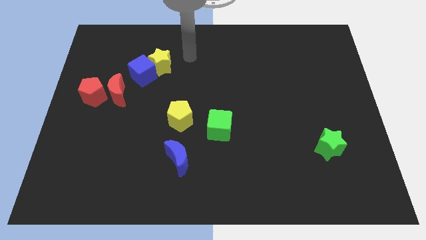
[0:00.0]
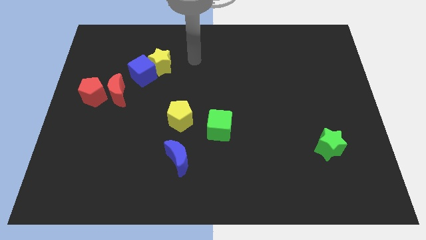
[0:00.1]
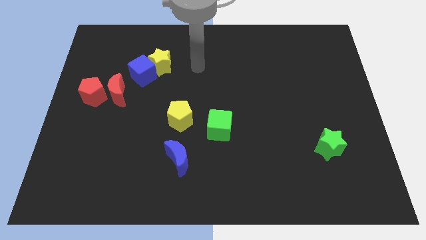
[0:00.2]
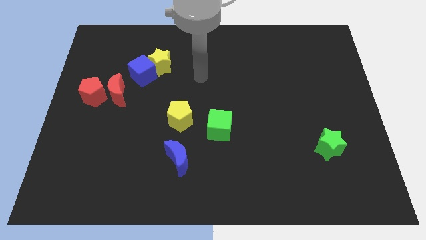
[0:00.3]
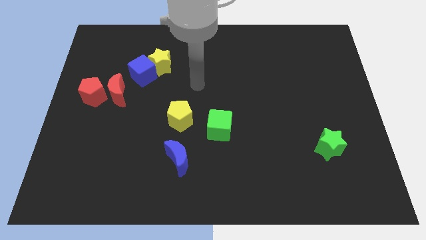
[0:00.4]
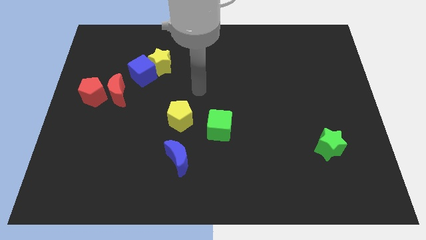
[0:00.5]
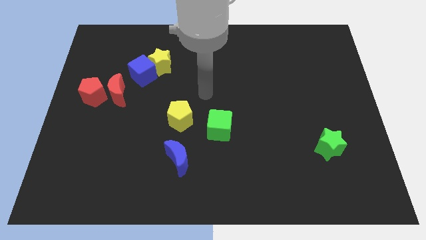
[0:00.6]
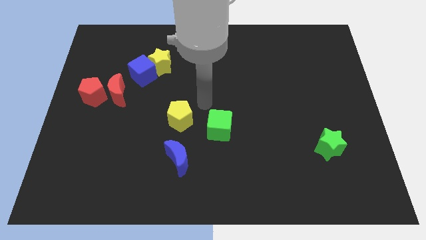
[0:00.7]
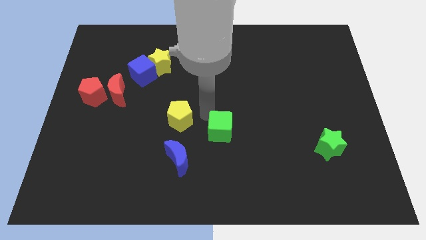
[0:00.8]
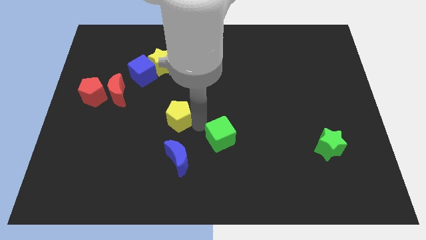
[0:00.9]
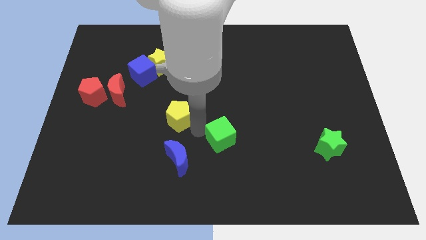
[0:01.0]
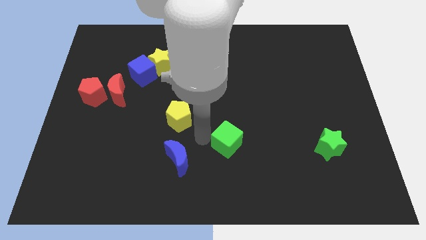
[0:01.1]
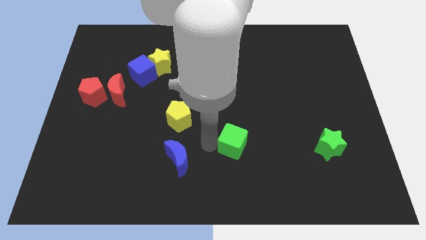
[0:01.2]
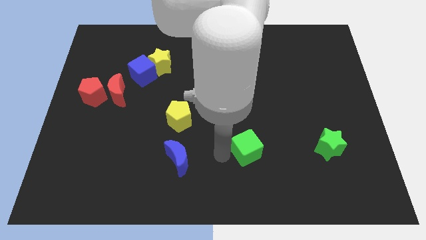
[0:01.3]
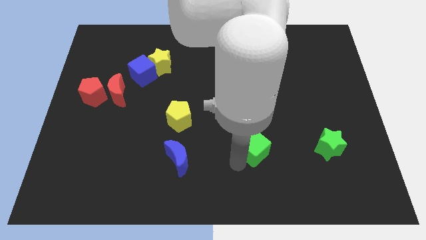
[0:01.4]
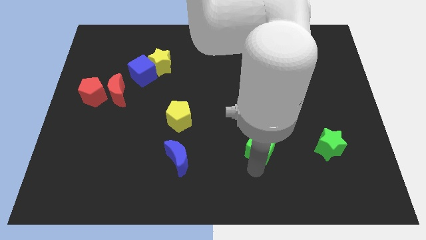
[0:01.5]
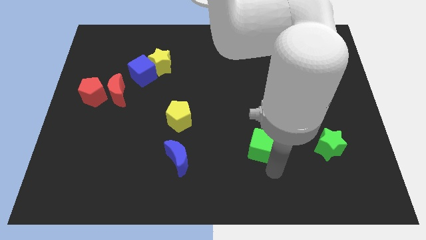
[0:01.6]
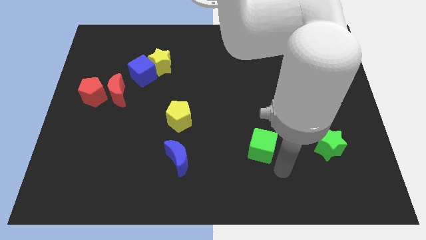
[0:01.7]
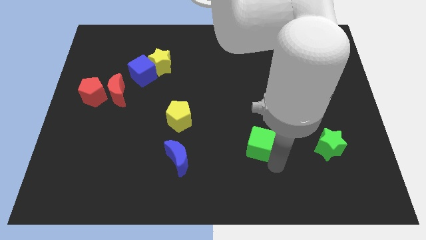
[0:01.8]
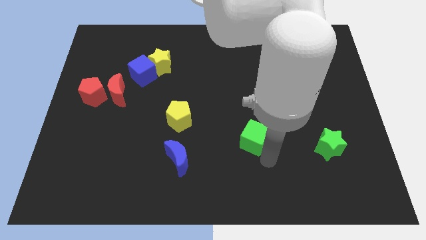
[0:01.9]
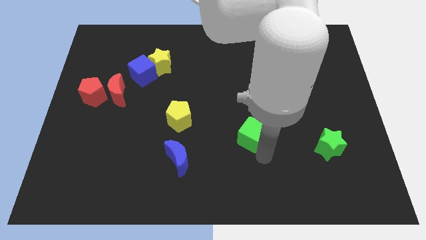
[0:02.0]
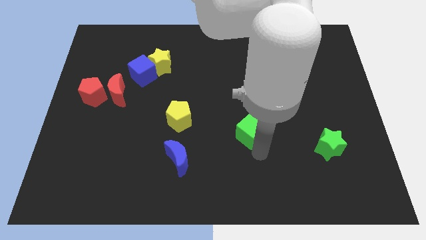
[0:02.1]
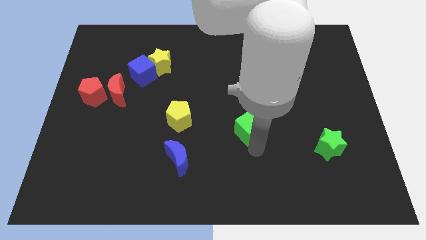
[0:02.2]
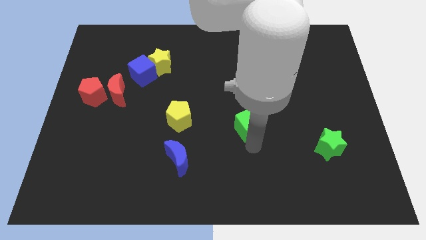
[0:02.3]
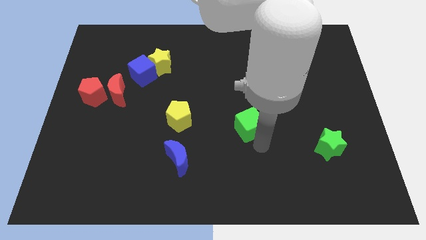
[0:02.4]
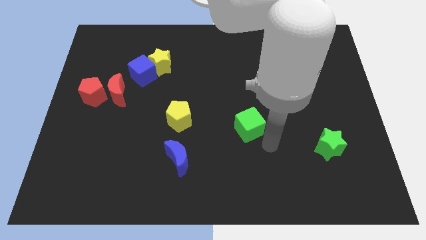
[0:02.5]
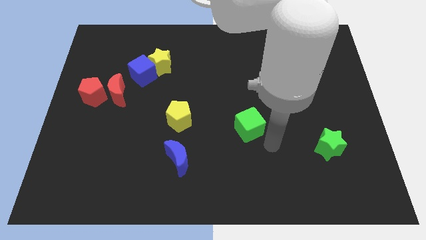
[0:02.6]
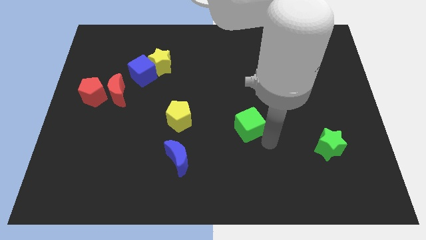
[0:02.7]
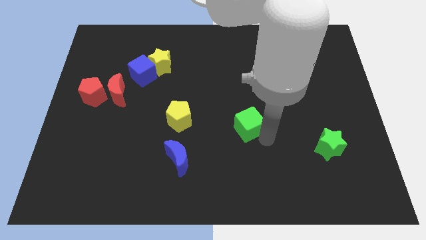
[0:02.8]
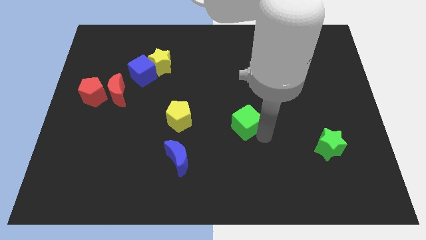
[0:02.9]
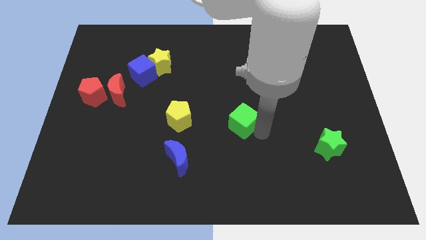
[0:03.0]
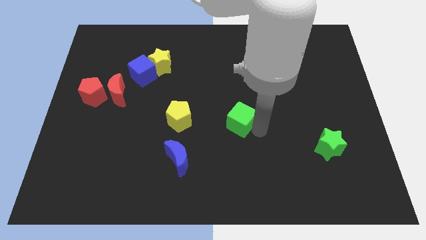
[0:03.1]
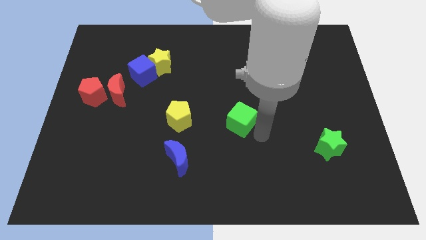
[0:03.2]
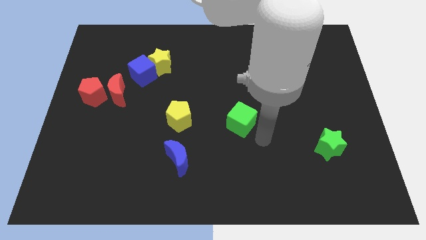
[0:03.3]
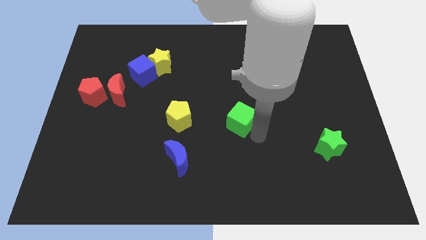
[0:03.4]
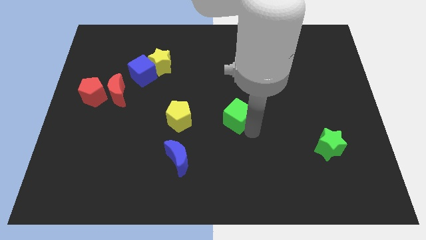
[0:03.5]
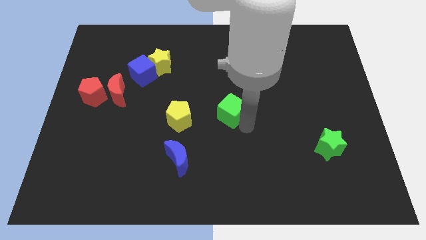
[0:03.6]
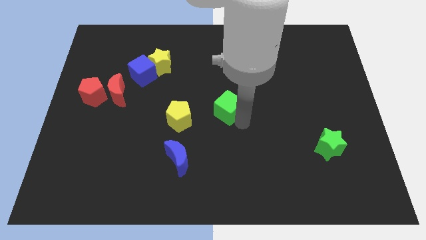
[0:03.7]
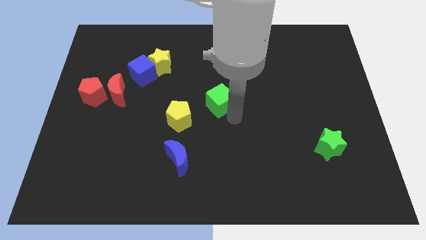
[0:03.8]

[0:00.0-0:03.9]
slightly move the green cube up

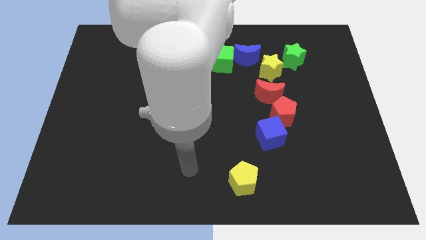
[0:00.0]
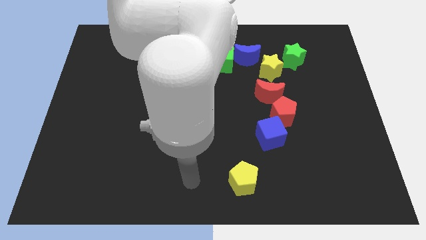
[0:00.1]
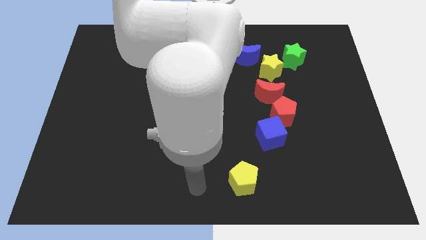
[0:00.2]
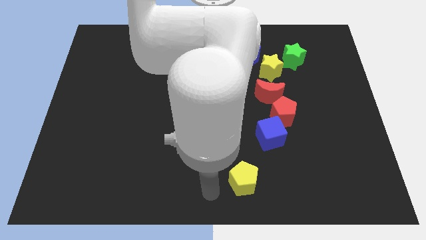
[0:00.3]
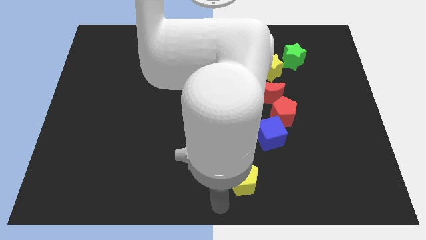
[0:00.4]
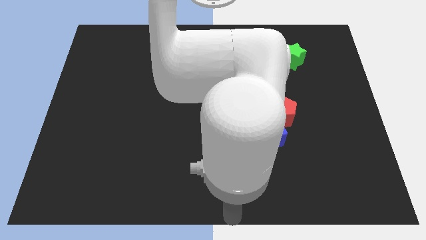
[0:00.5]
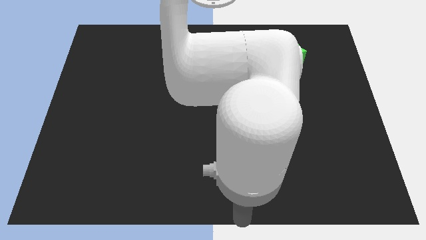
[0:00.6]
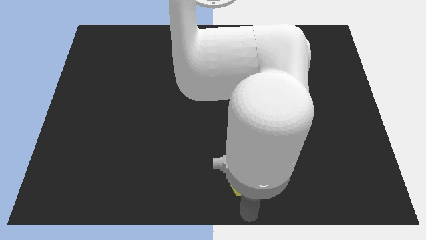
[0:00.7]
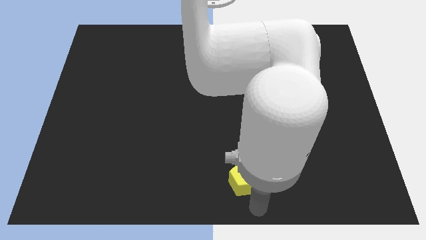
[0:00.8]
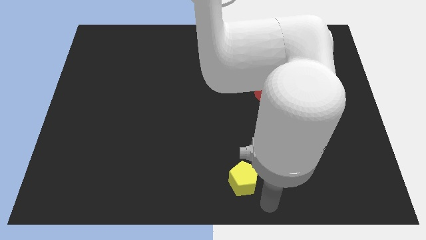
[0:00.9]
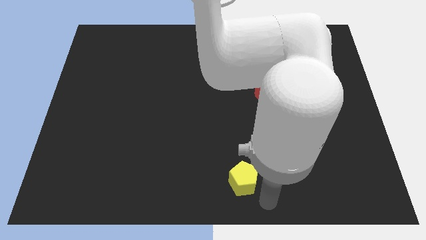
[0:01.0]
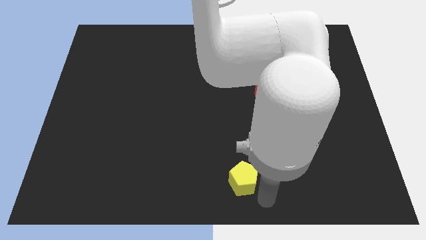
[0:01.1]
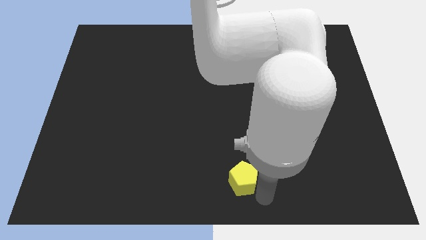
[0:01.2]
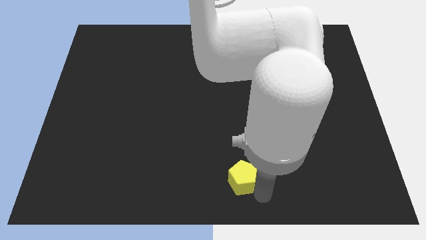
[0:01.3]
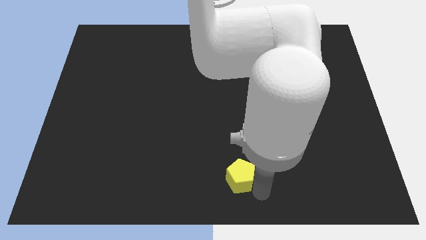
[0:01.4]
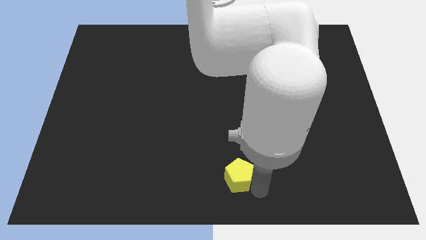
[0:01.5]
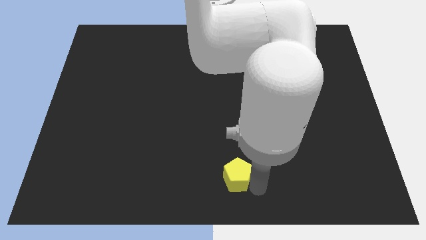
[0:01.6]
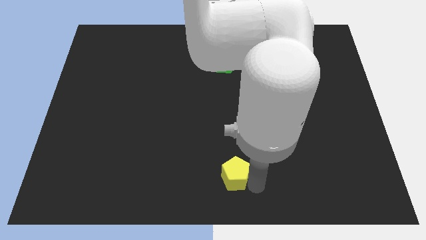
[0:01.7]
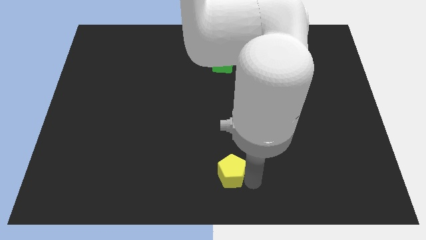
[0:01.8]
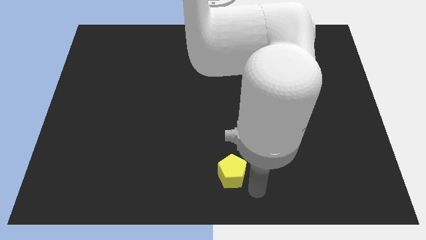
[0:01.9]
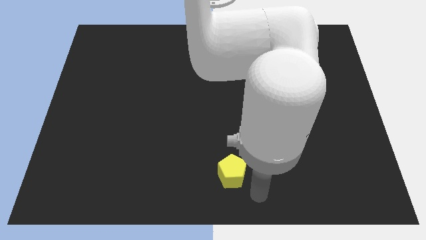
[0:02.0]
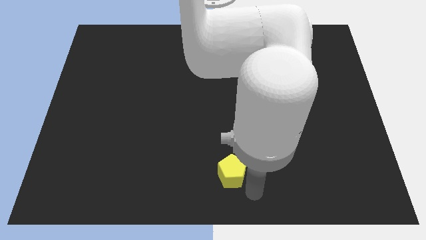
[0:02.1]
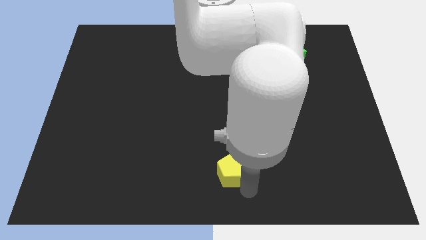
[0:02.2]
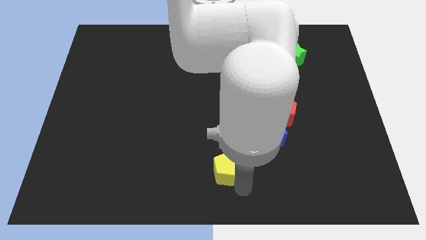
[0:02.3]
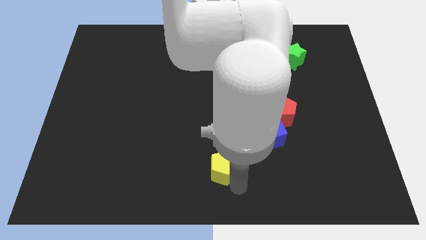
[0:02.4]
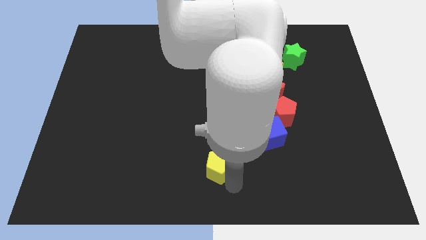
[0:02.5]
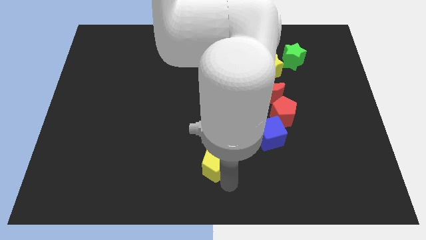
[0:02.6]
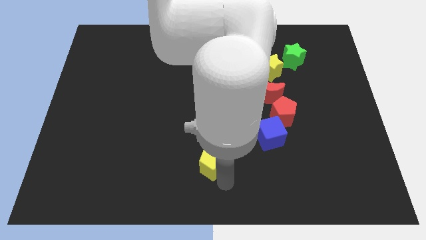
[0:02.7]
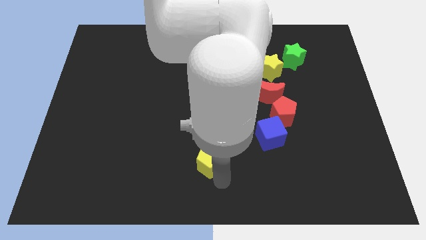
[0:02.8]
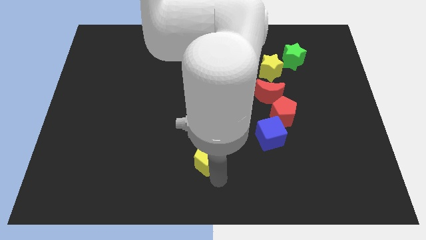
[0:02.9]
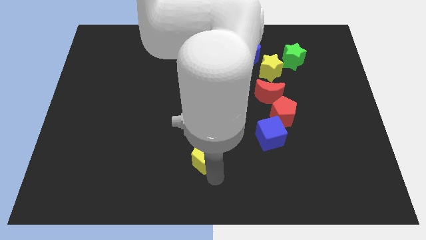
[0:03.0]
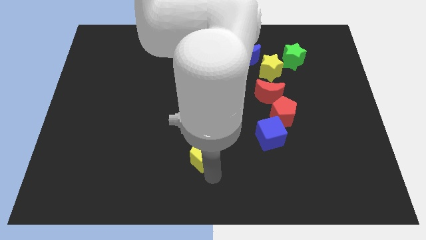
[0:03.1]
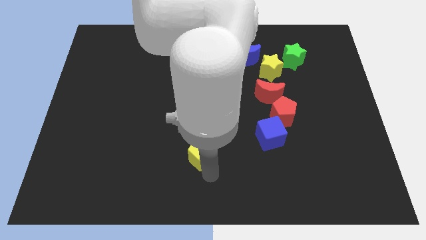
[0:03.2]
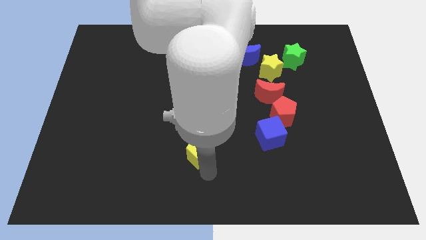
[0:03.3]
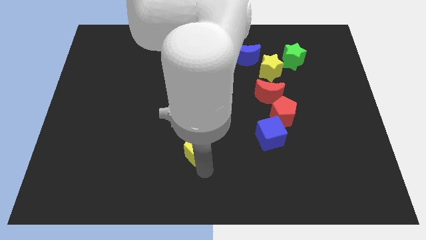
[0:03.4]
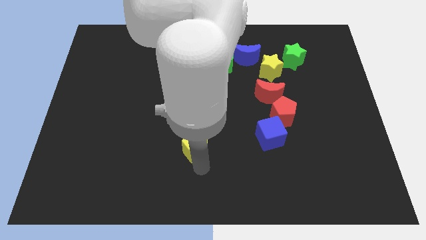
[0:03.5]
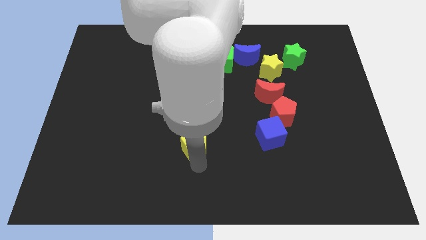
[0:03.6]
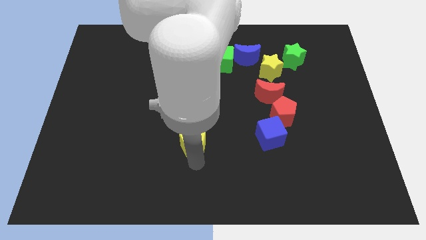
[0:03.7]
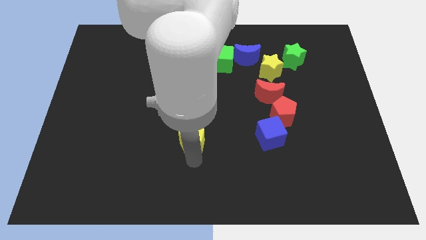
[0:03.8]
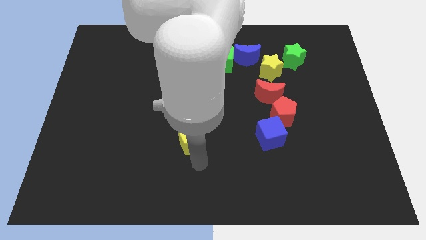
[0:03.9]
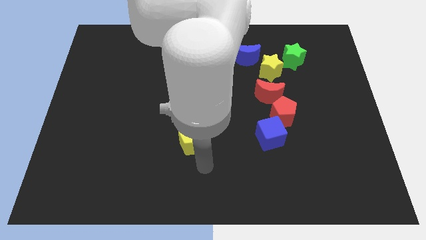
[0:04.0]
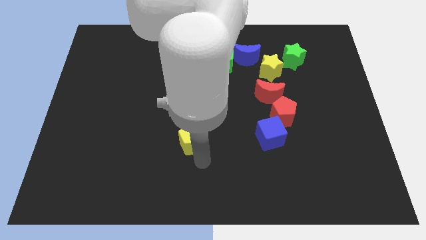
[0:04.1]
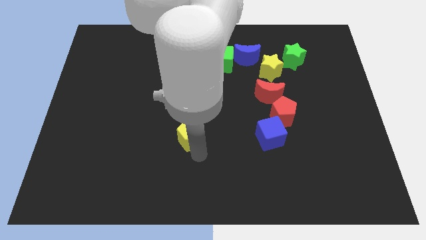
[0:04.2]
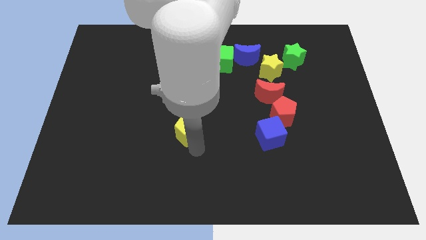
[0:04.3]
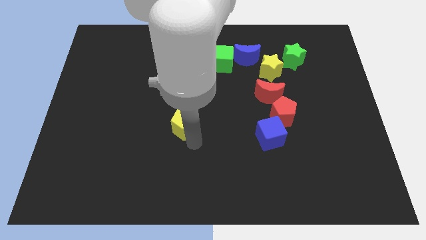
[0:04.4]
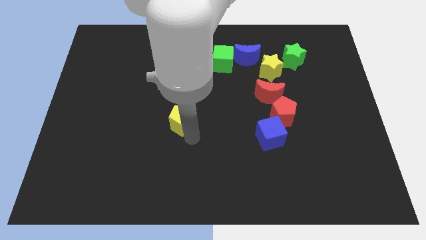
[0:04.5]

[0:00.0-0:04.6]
slide the yellow pentagon upwards and to the left diagonally
